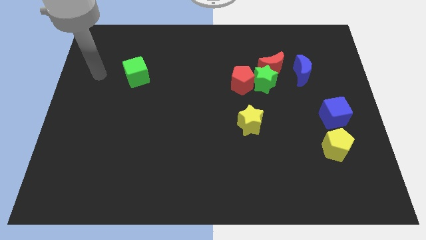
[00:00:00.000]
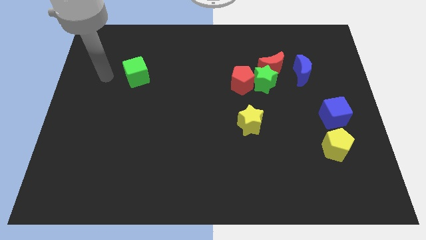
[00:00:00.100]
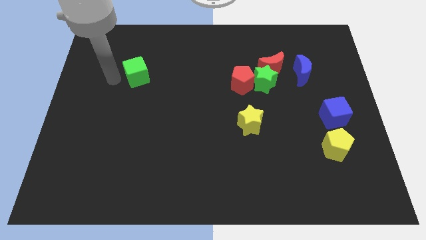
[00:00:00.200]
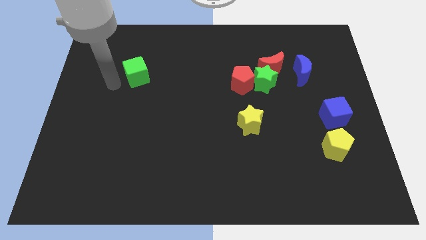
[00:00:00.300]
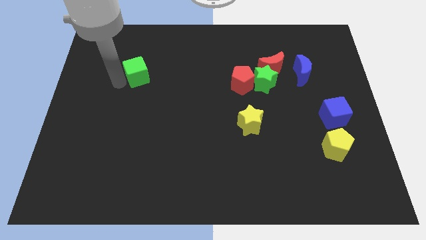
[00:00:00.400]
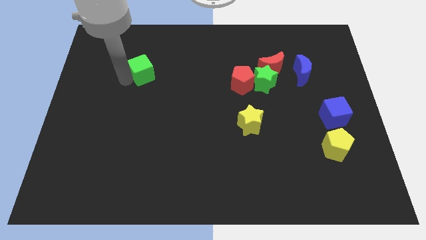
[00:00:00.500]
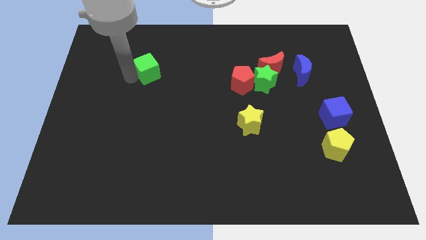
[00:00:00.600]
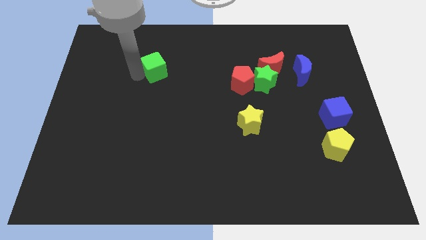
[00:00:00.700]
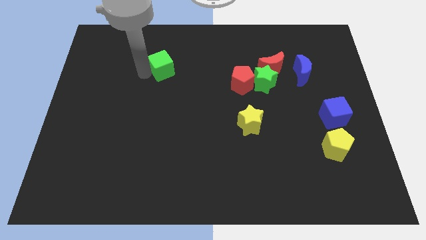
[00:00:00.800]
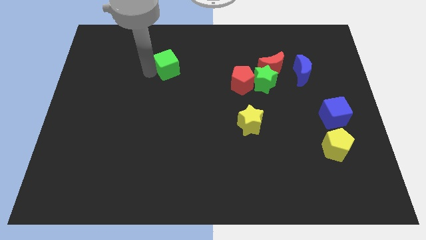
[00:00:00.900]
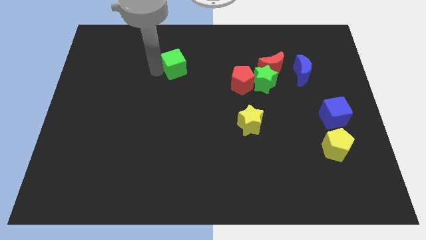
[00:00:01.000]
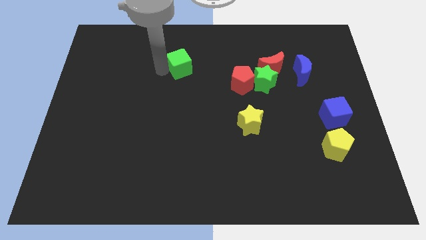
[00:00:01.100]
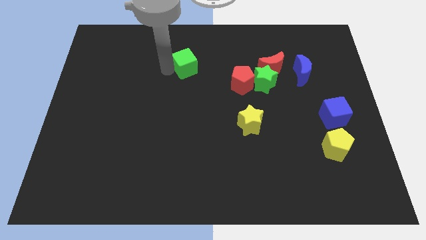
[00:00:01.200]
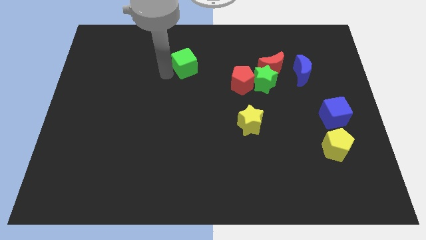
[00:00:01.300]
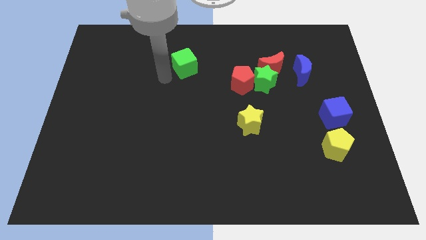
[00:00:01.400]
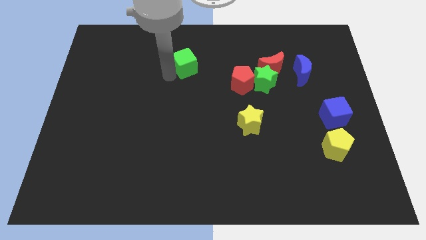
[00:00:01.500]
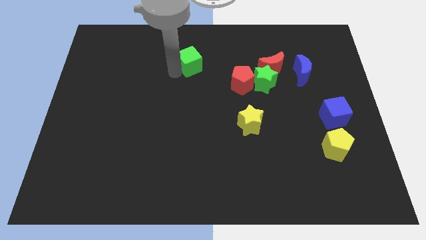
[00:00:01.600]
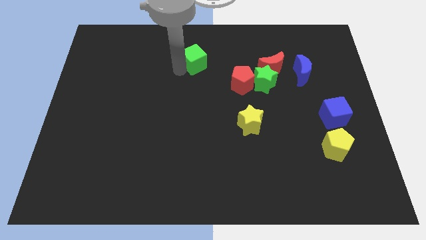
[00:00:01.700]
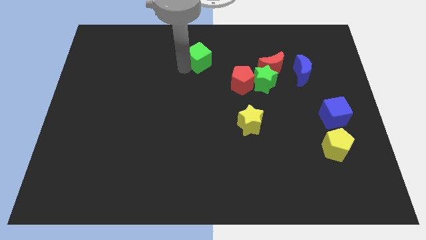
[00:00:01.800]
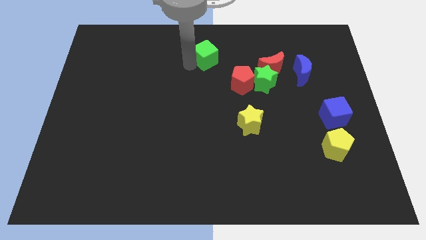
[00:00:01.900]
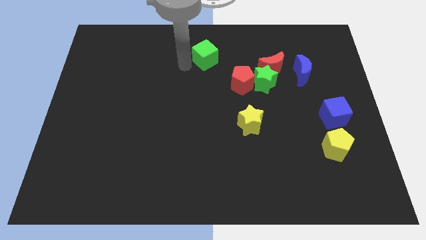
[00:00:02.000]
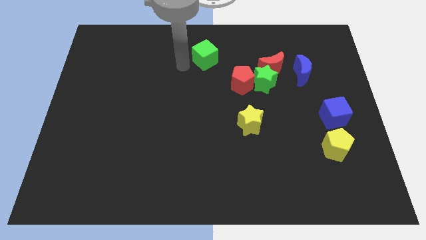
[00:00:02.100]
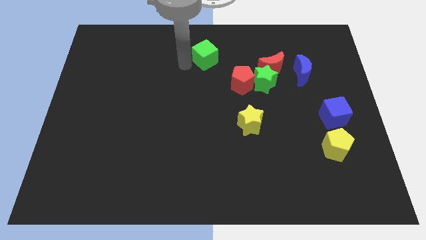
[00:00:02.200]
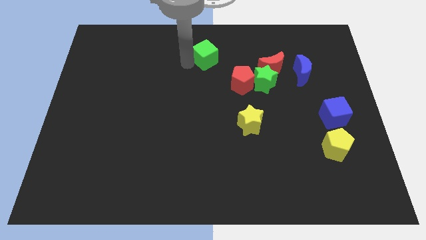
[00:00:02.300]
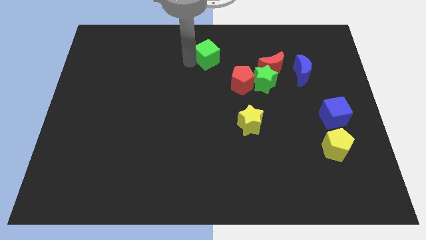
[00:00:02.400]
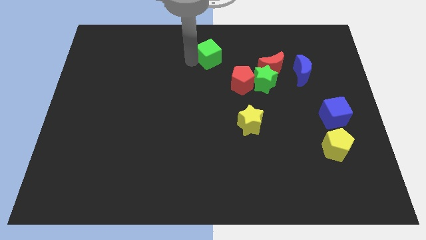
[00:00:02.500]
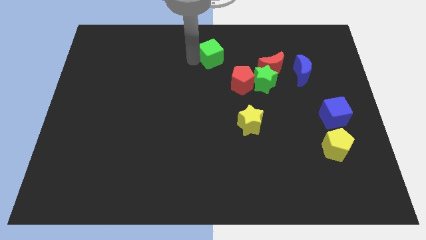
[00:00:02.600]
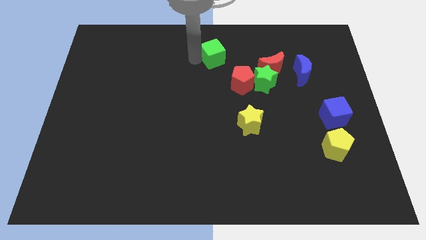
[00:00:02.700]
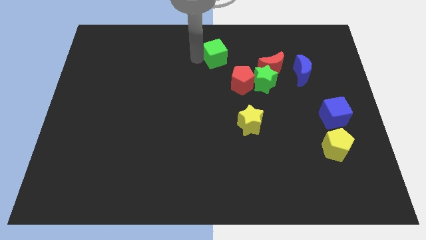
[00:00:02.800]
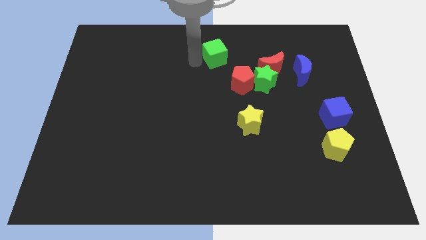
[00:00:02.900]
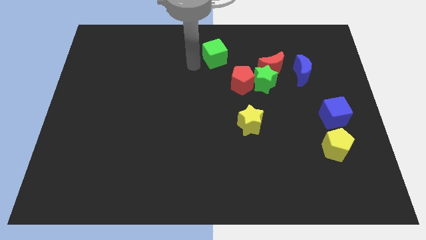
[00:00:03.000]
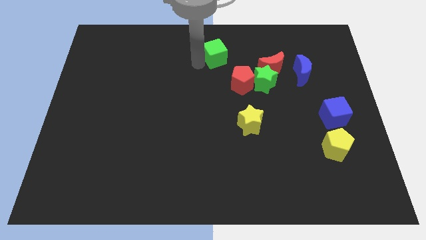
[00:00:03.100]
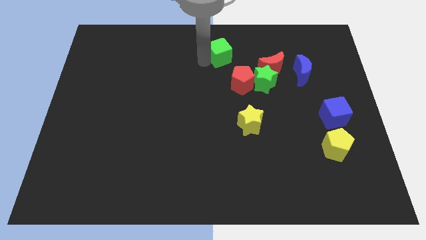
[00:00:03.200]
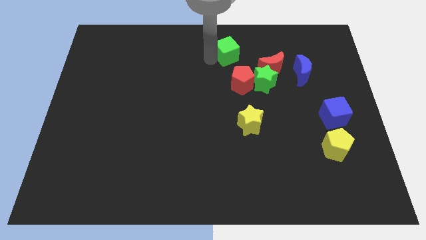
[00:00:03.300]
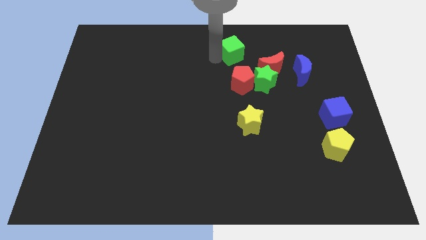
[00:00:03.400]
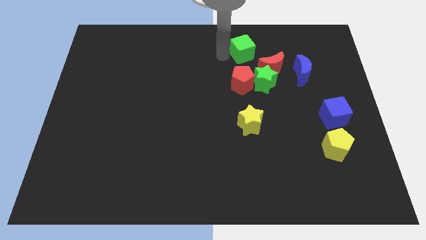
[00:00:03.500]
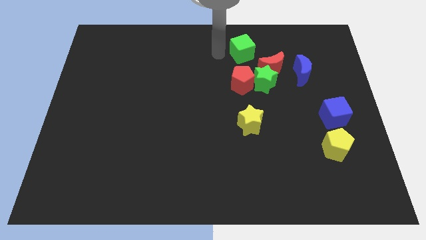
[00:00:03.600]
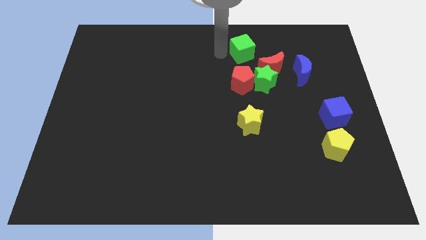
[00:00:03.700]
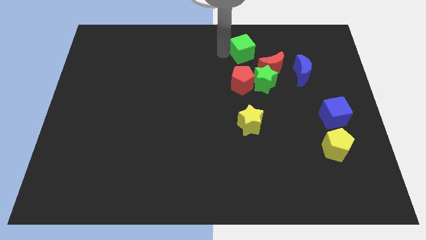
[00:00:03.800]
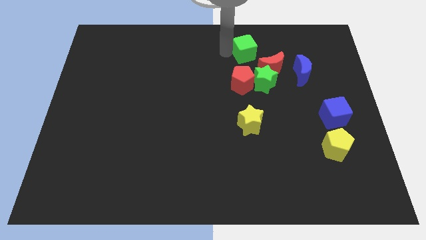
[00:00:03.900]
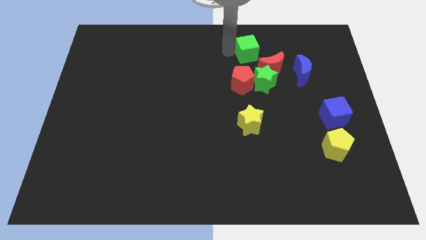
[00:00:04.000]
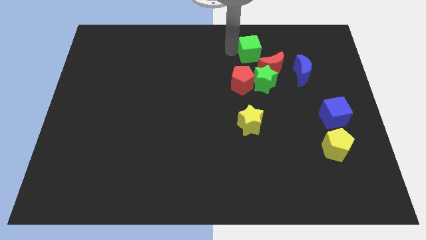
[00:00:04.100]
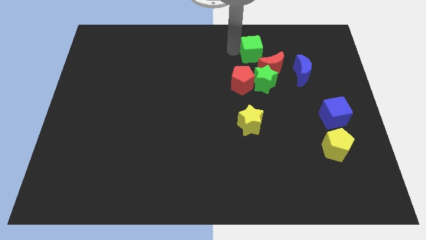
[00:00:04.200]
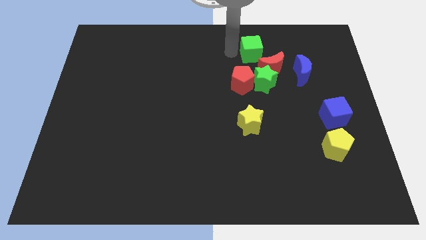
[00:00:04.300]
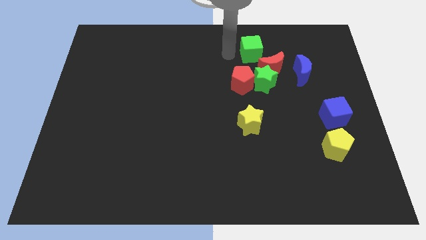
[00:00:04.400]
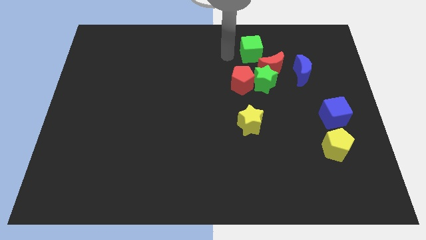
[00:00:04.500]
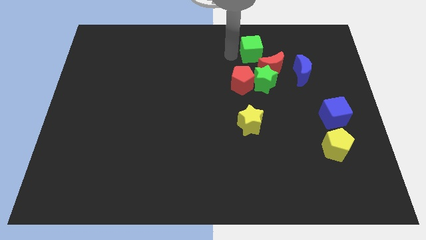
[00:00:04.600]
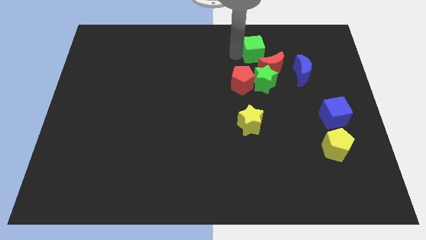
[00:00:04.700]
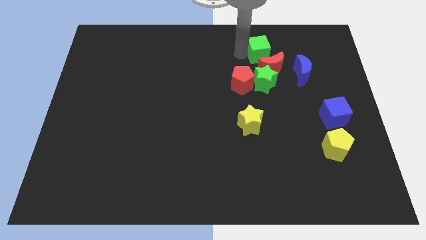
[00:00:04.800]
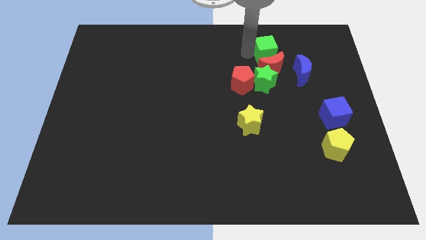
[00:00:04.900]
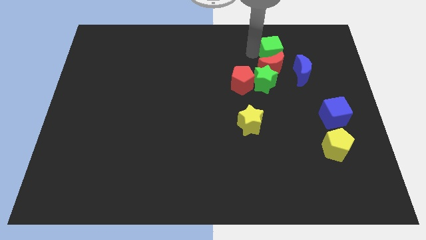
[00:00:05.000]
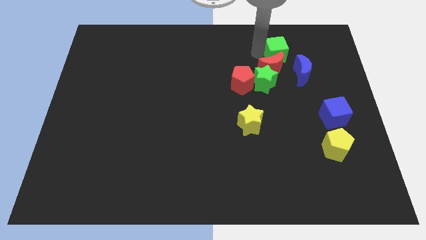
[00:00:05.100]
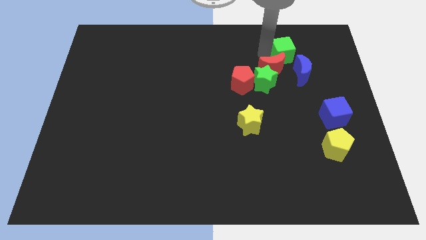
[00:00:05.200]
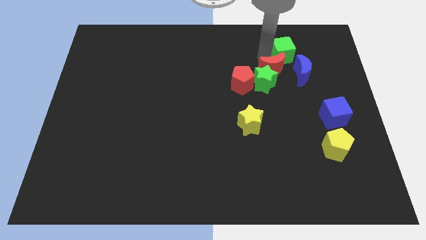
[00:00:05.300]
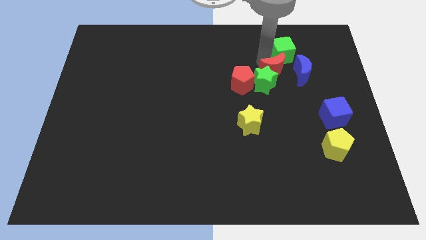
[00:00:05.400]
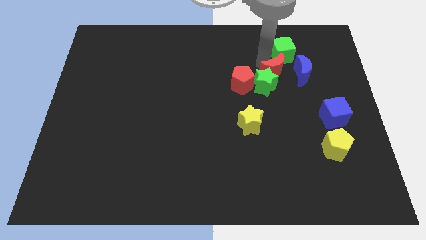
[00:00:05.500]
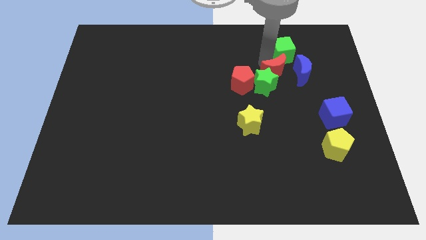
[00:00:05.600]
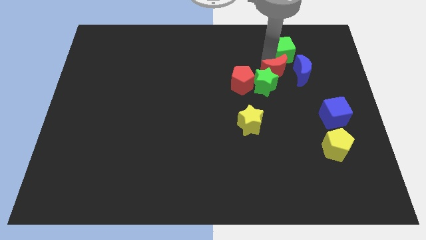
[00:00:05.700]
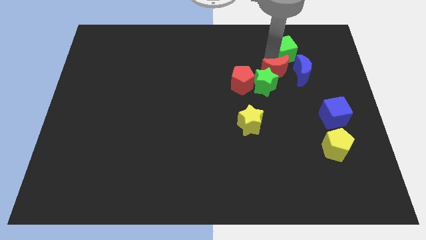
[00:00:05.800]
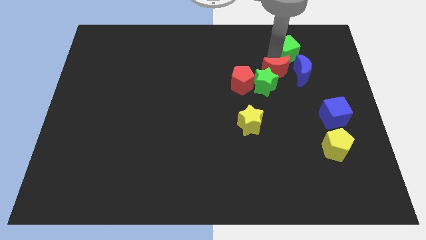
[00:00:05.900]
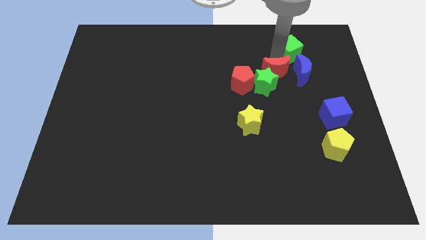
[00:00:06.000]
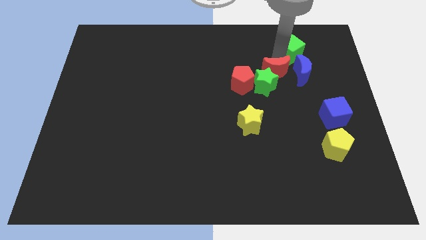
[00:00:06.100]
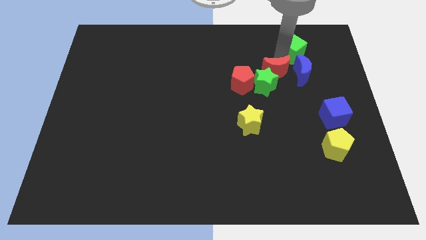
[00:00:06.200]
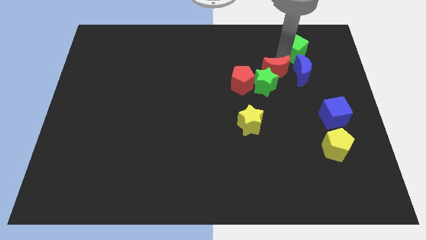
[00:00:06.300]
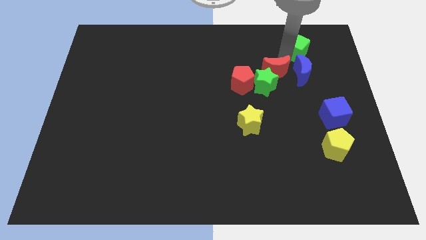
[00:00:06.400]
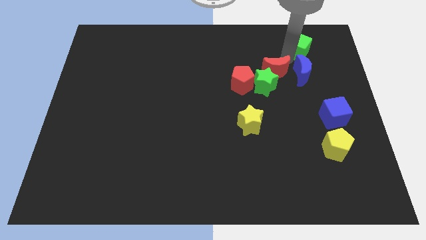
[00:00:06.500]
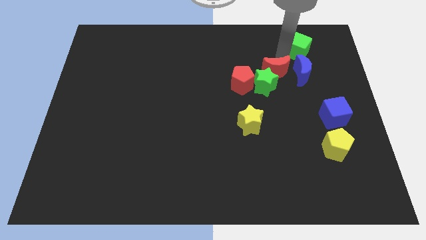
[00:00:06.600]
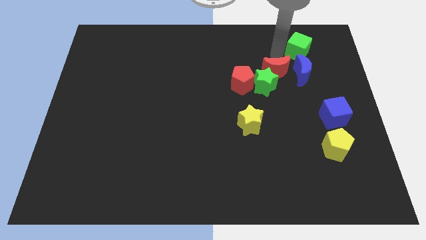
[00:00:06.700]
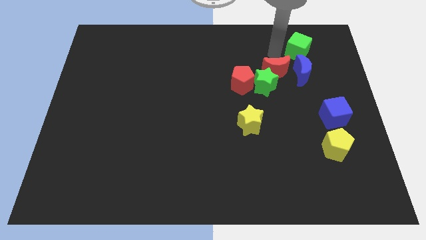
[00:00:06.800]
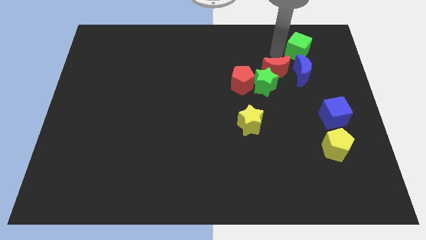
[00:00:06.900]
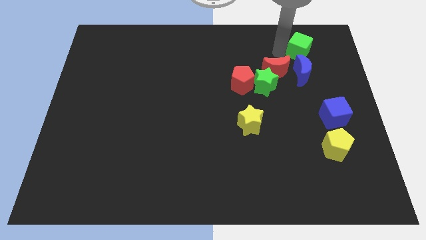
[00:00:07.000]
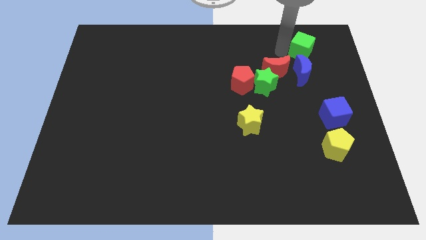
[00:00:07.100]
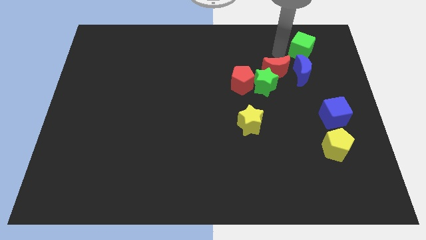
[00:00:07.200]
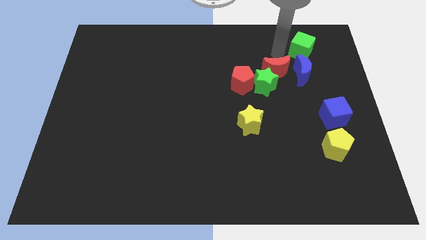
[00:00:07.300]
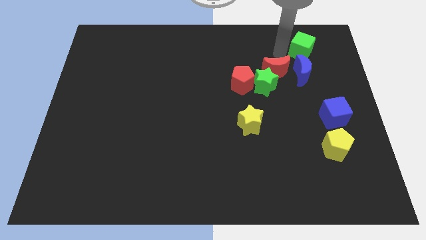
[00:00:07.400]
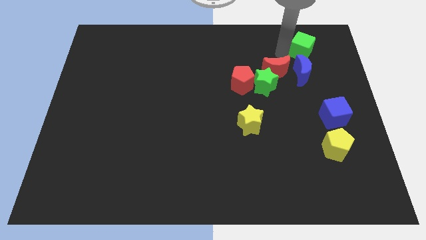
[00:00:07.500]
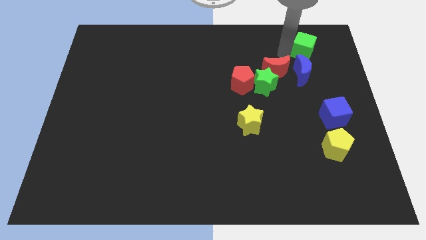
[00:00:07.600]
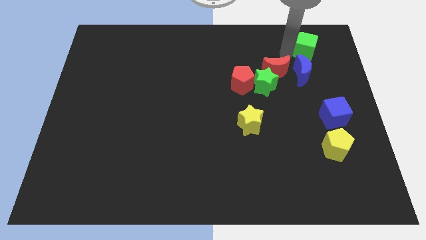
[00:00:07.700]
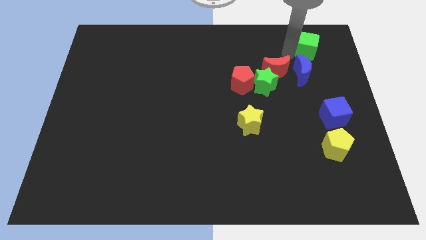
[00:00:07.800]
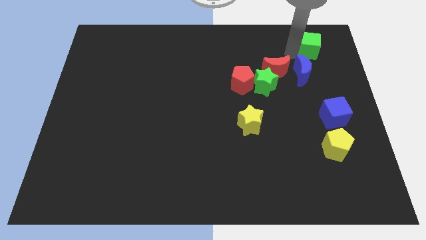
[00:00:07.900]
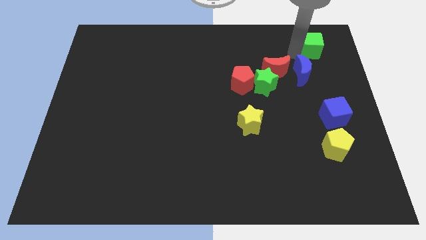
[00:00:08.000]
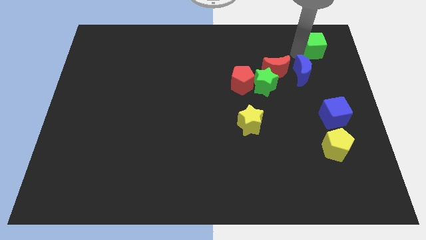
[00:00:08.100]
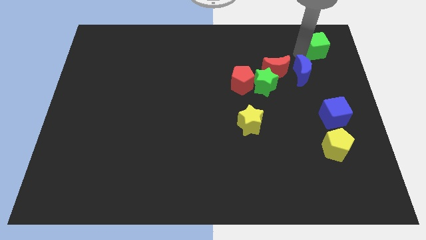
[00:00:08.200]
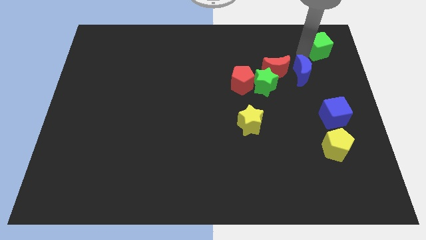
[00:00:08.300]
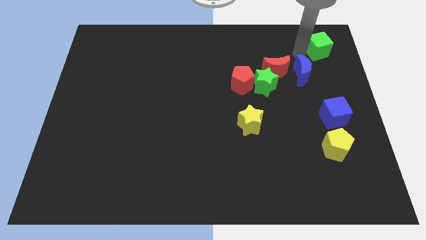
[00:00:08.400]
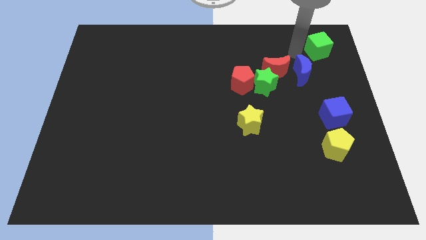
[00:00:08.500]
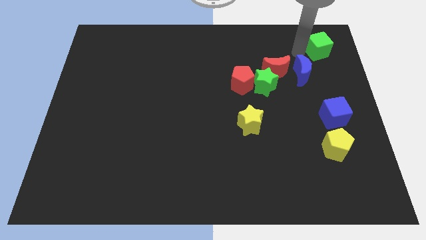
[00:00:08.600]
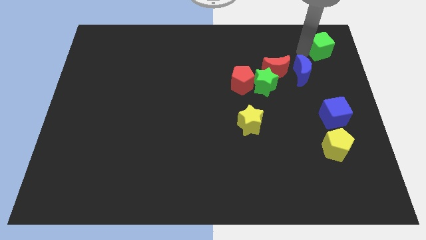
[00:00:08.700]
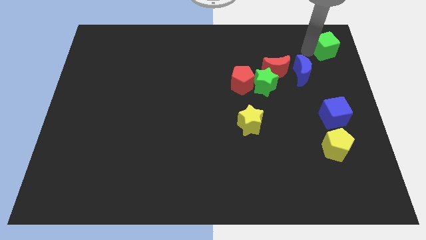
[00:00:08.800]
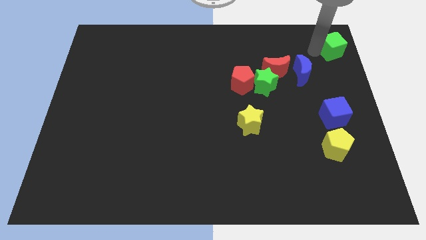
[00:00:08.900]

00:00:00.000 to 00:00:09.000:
slide the green cube to the top right corner
